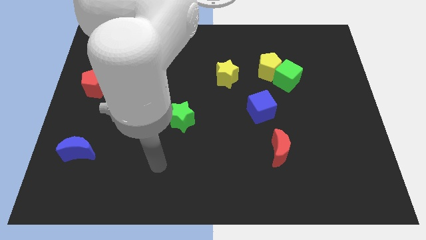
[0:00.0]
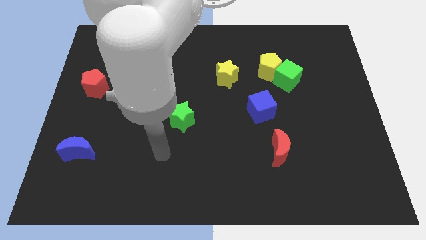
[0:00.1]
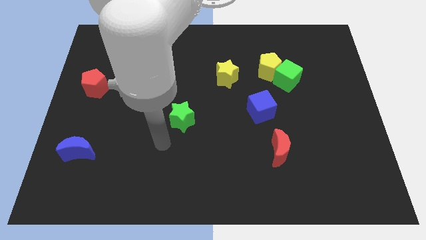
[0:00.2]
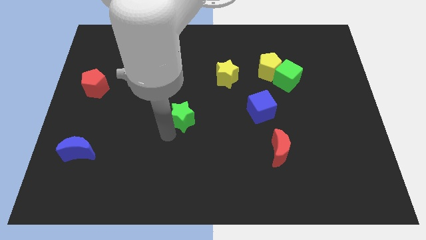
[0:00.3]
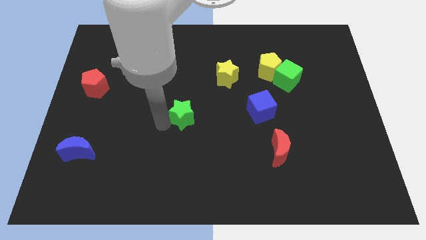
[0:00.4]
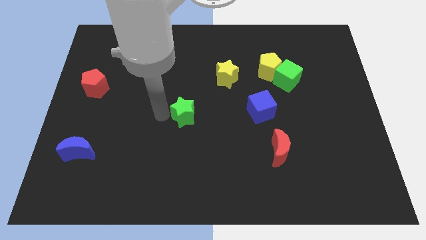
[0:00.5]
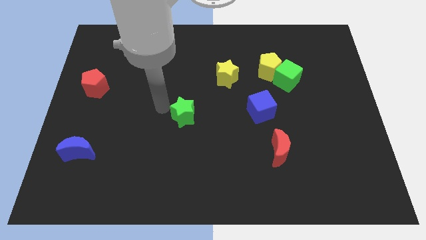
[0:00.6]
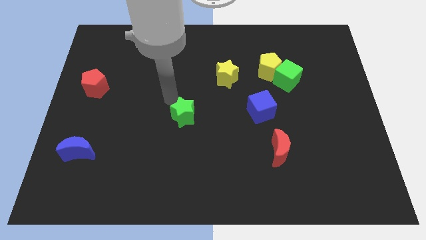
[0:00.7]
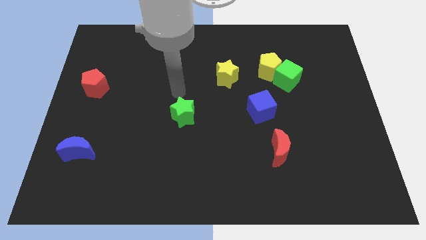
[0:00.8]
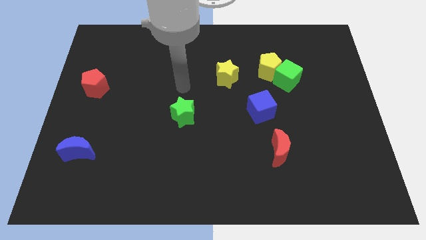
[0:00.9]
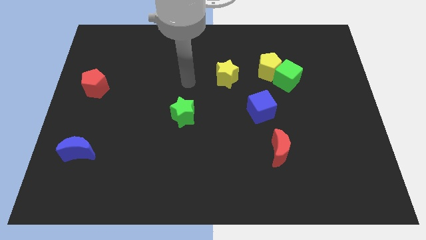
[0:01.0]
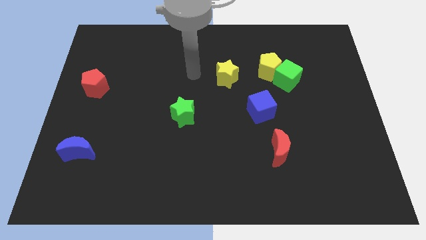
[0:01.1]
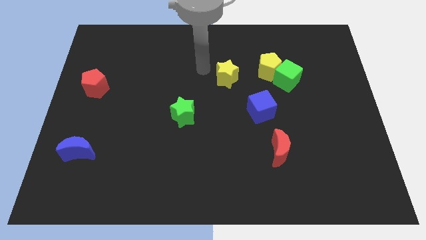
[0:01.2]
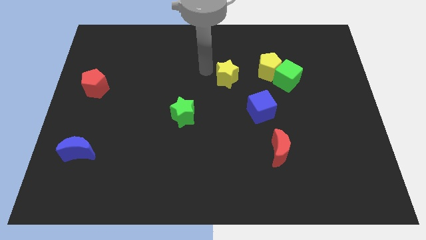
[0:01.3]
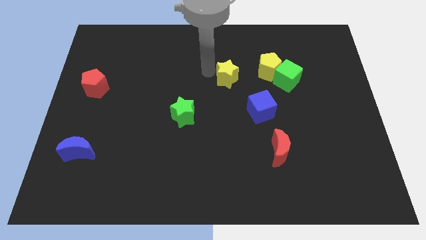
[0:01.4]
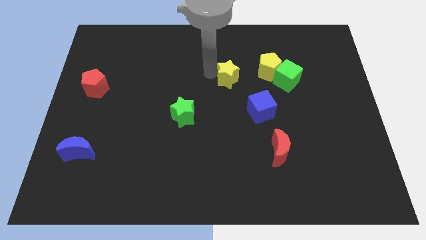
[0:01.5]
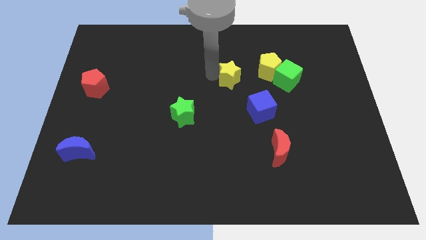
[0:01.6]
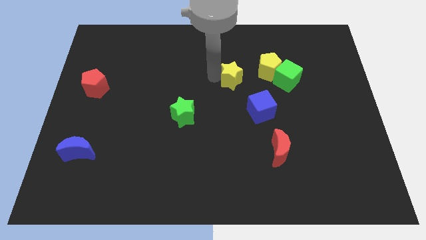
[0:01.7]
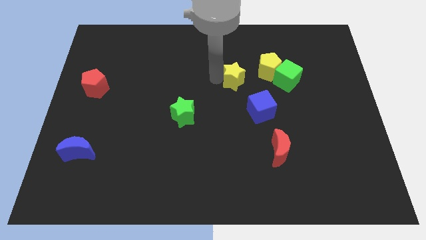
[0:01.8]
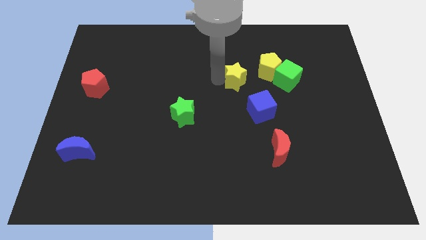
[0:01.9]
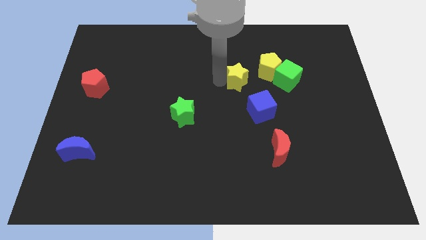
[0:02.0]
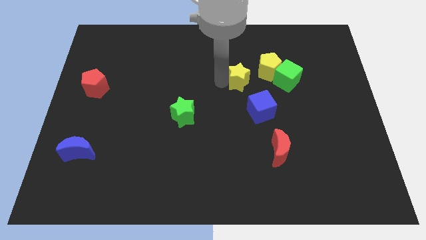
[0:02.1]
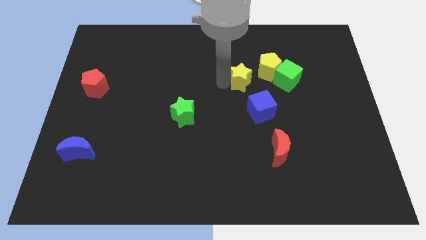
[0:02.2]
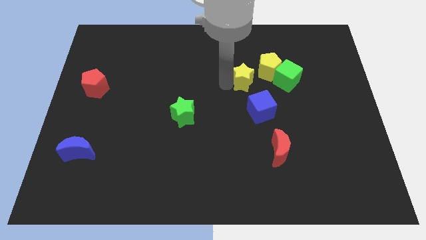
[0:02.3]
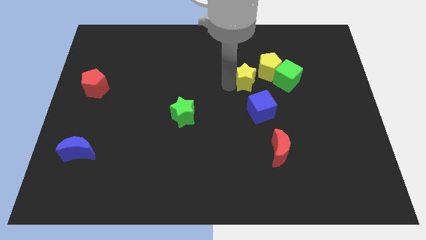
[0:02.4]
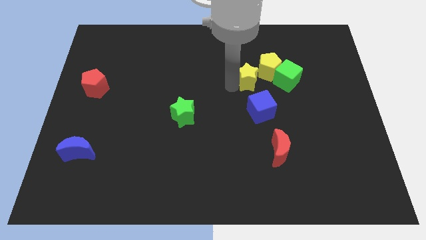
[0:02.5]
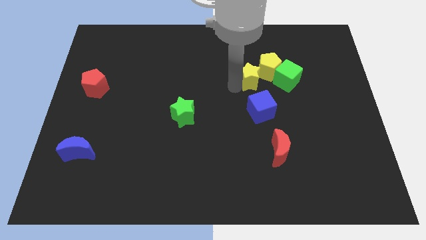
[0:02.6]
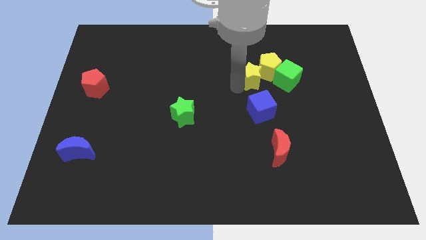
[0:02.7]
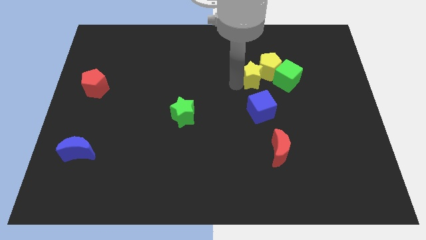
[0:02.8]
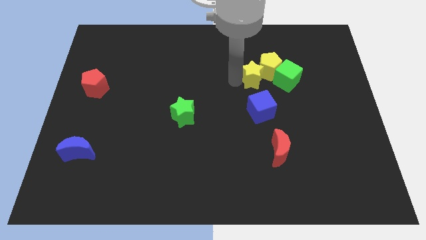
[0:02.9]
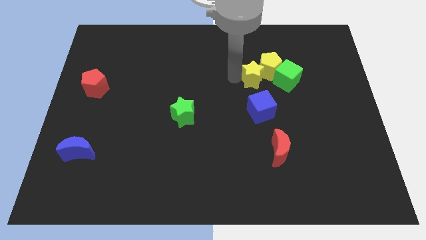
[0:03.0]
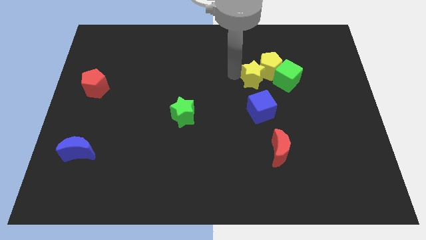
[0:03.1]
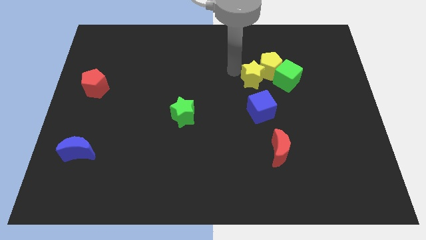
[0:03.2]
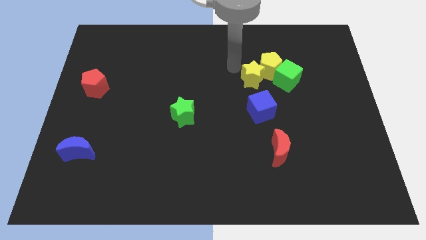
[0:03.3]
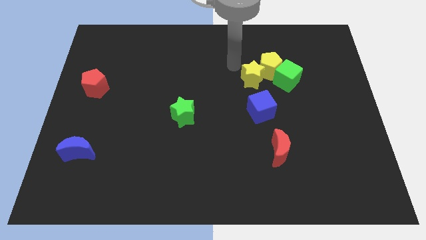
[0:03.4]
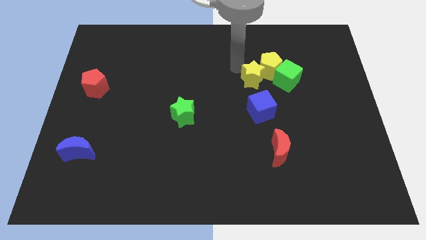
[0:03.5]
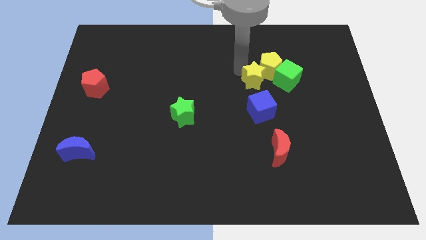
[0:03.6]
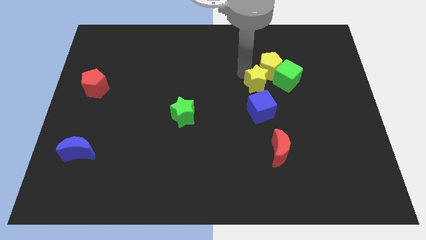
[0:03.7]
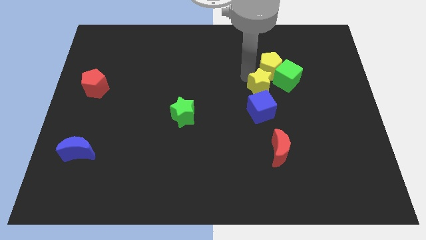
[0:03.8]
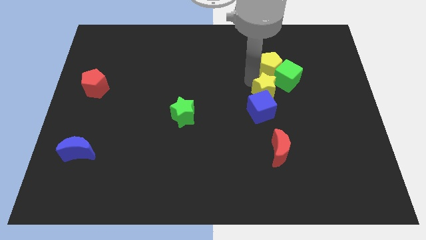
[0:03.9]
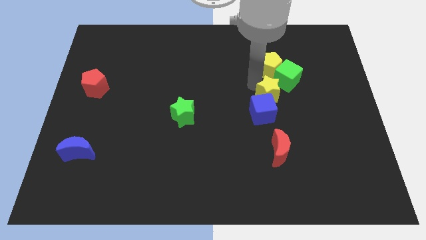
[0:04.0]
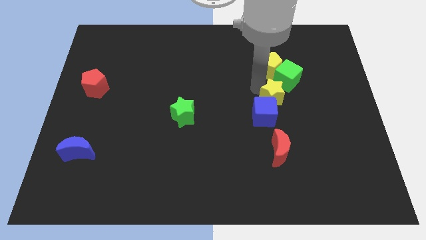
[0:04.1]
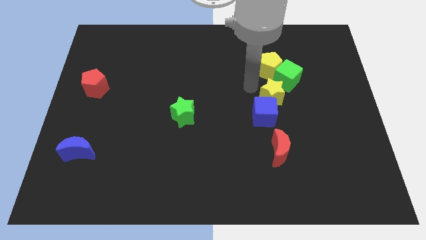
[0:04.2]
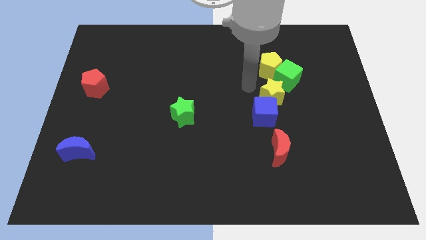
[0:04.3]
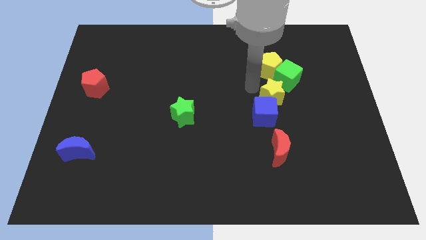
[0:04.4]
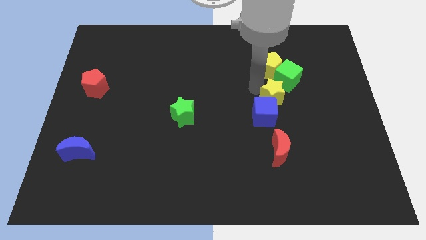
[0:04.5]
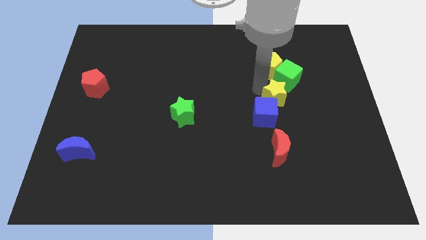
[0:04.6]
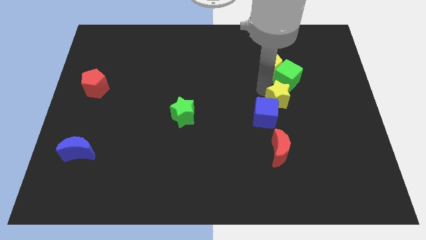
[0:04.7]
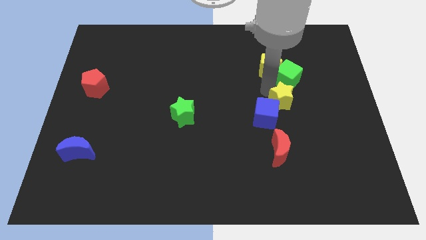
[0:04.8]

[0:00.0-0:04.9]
push the yellow star to the right of the blue cube

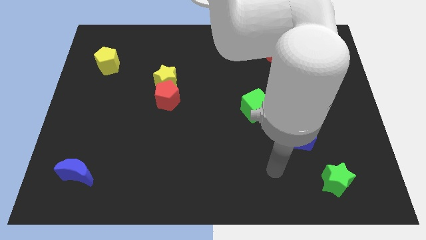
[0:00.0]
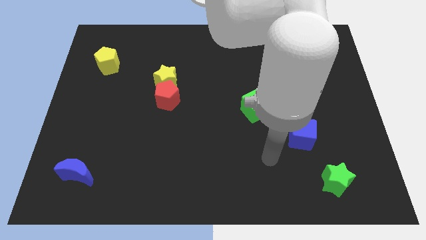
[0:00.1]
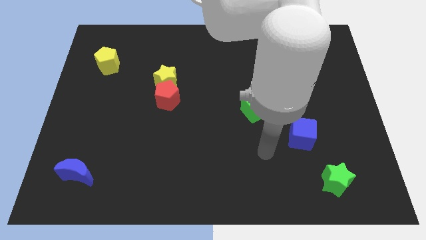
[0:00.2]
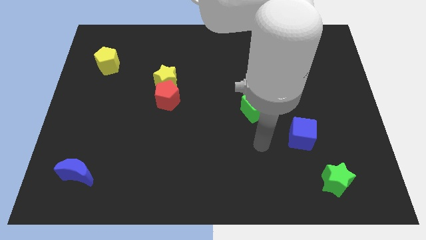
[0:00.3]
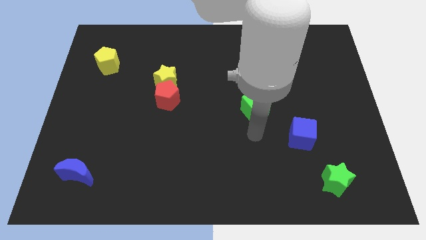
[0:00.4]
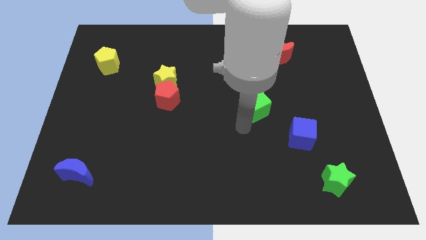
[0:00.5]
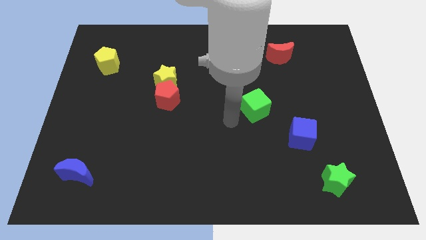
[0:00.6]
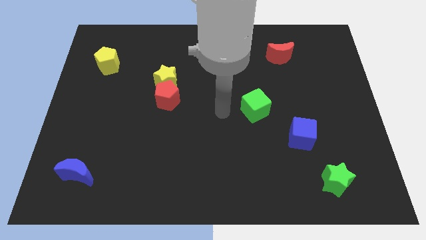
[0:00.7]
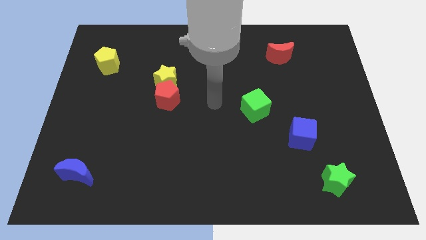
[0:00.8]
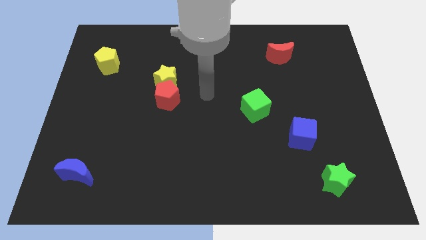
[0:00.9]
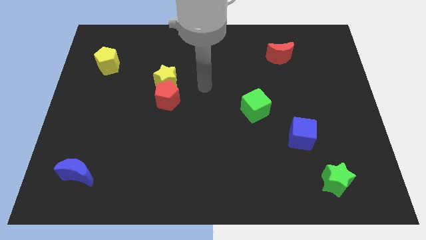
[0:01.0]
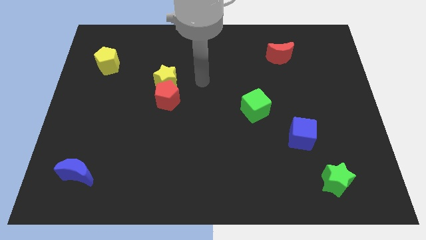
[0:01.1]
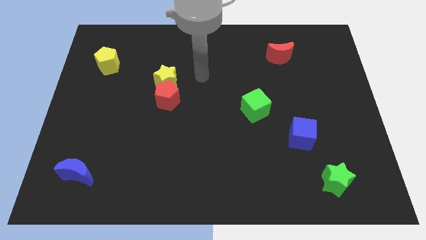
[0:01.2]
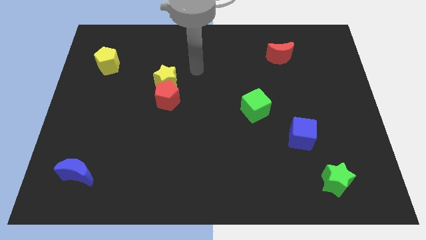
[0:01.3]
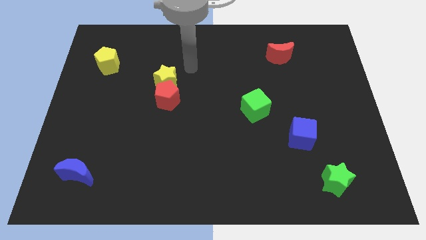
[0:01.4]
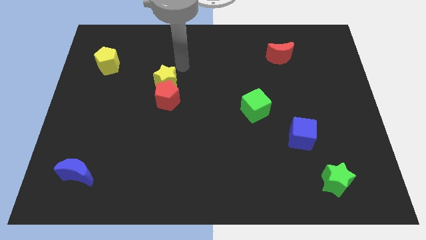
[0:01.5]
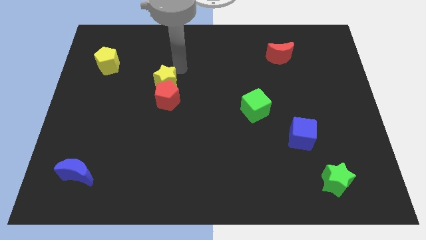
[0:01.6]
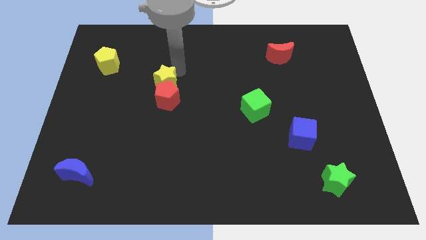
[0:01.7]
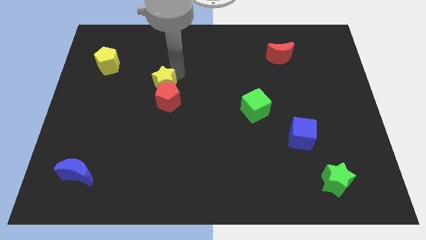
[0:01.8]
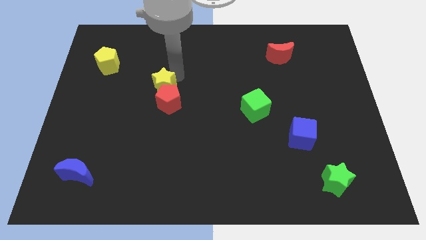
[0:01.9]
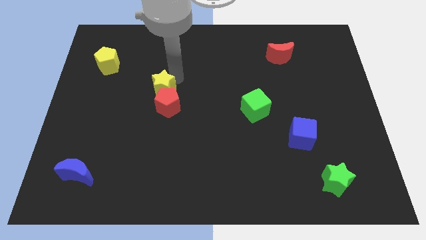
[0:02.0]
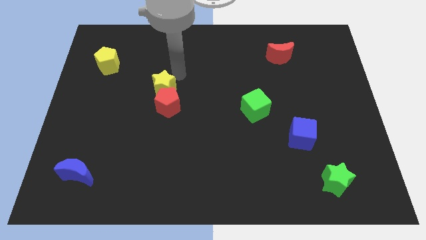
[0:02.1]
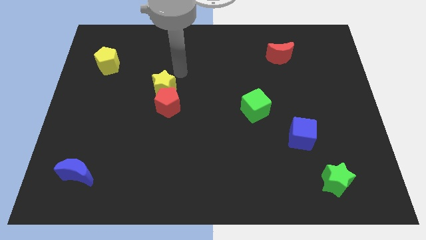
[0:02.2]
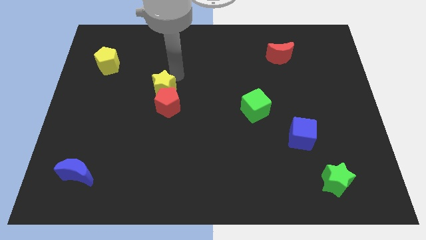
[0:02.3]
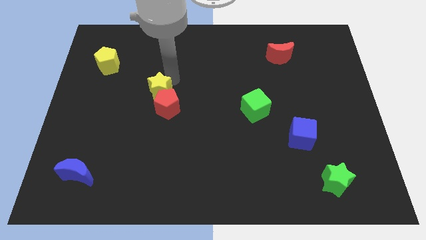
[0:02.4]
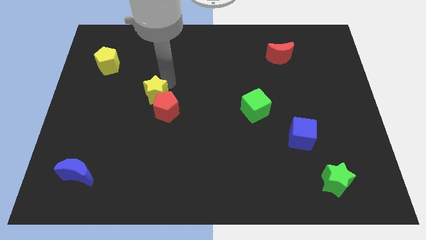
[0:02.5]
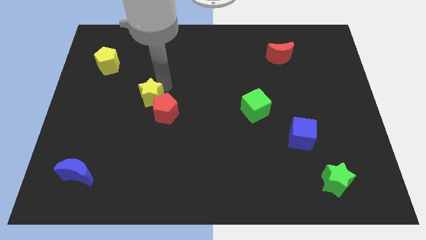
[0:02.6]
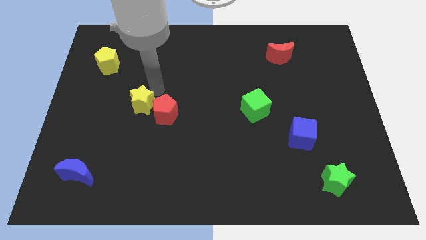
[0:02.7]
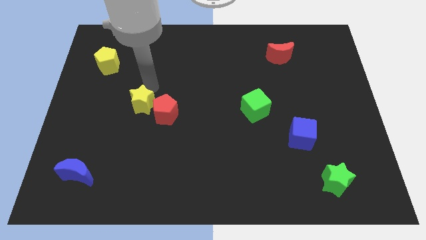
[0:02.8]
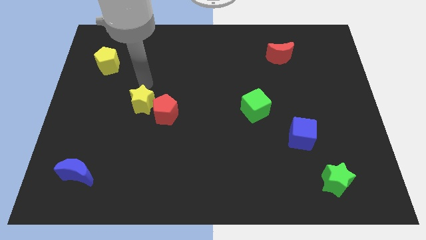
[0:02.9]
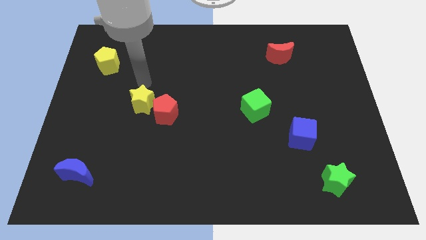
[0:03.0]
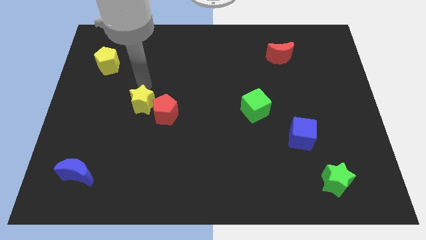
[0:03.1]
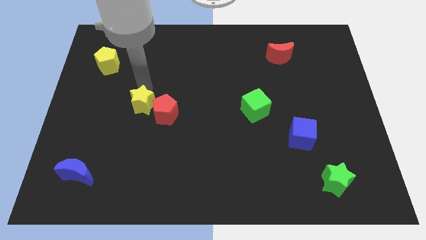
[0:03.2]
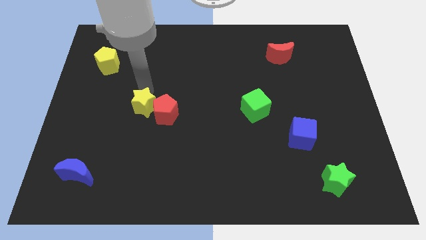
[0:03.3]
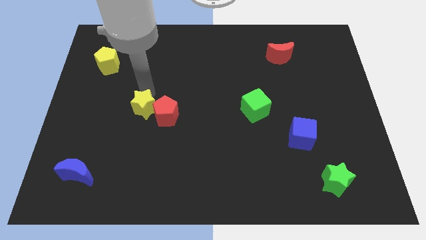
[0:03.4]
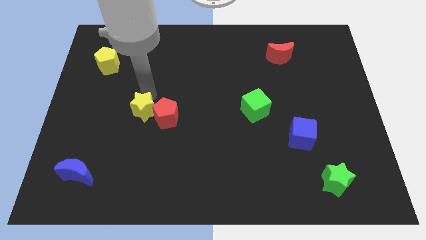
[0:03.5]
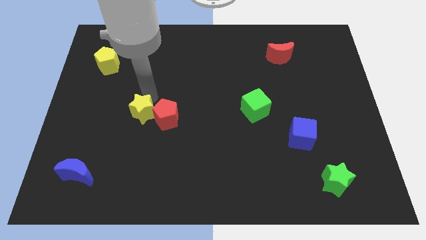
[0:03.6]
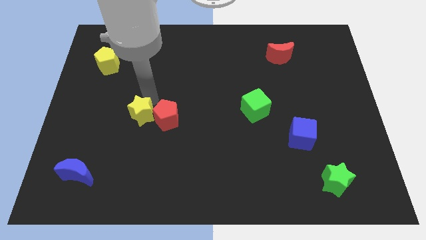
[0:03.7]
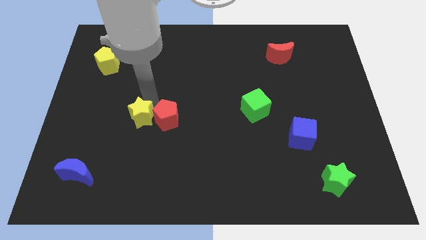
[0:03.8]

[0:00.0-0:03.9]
put the yellow star diagonally down and to the left of the red pentagon
